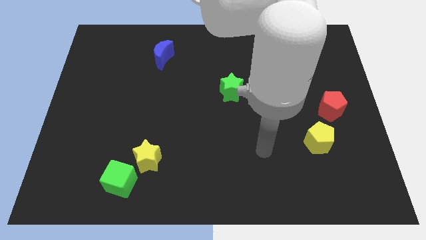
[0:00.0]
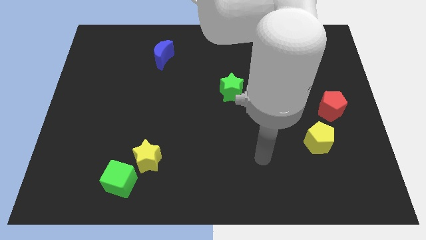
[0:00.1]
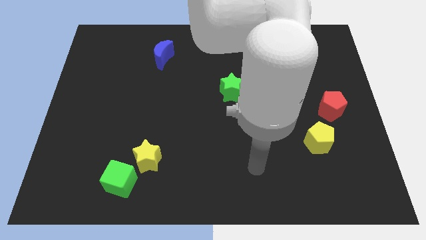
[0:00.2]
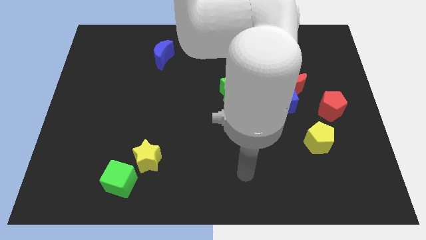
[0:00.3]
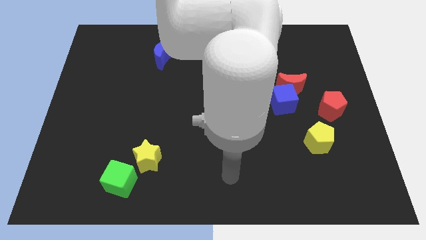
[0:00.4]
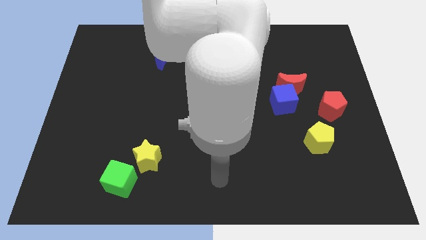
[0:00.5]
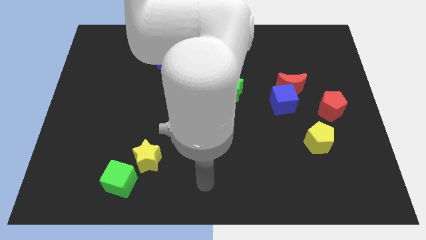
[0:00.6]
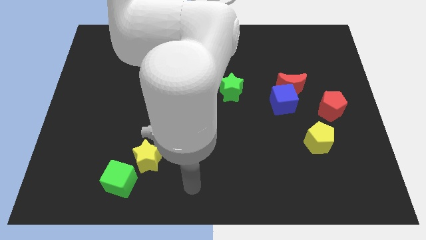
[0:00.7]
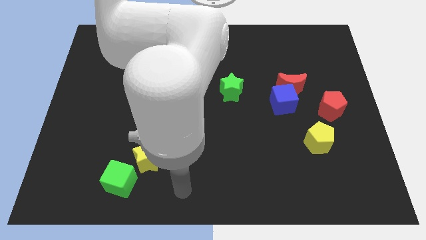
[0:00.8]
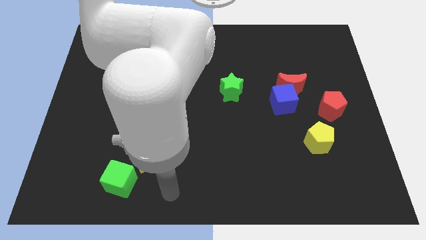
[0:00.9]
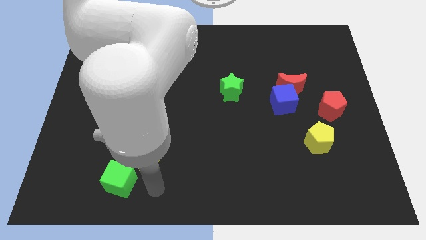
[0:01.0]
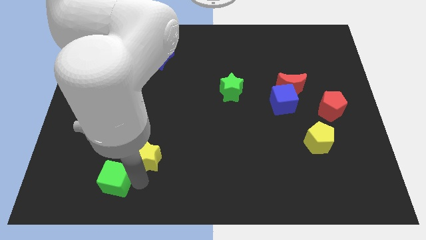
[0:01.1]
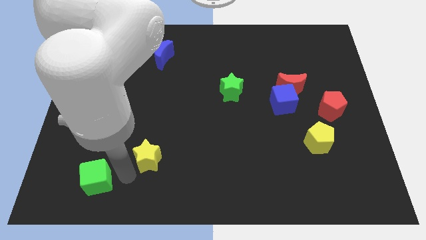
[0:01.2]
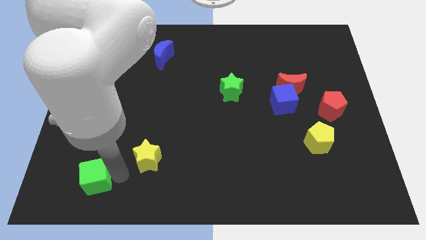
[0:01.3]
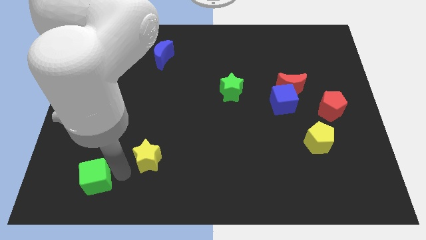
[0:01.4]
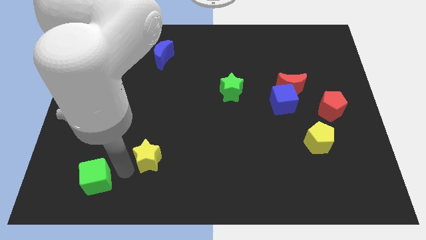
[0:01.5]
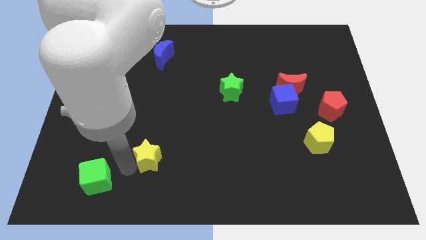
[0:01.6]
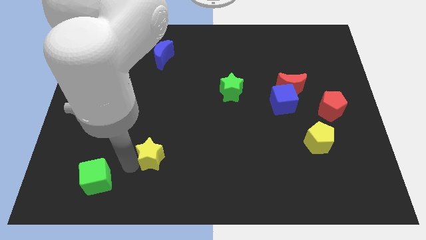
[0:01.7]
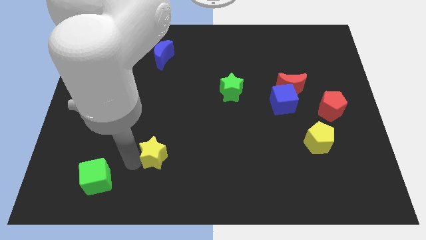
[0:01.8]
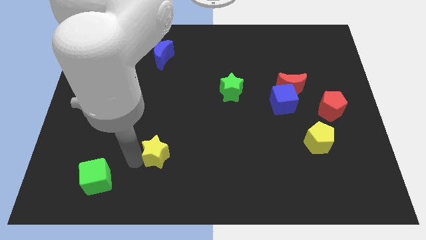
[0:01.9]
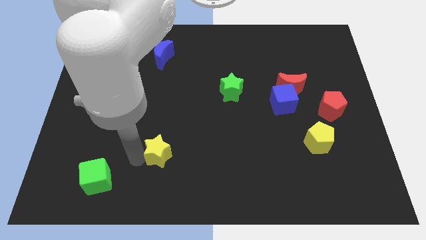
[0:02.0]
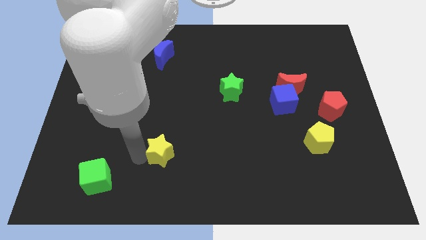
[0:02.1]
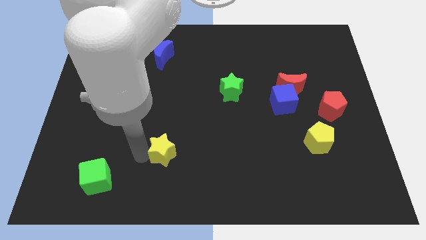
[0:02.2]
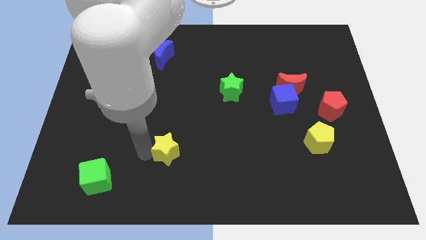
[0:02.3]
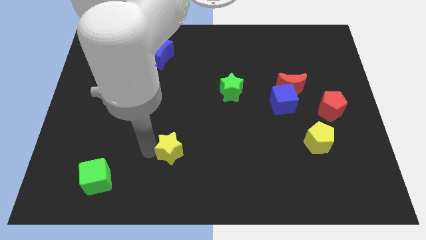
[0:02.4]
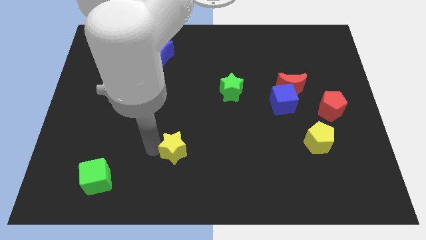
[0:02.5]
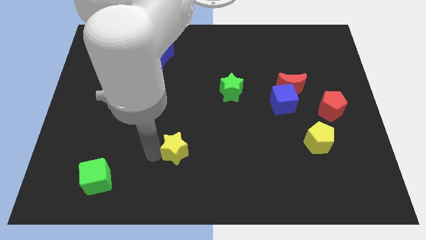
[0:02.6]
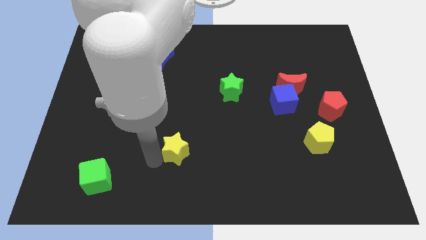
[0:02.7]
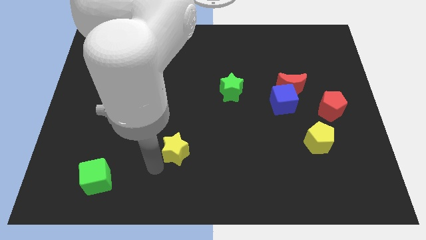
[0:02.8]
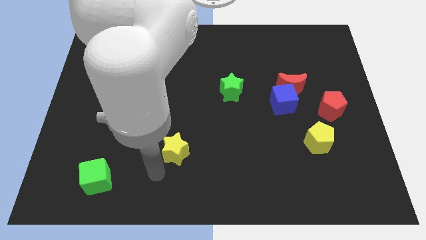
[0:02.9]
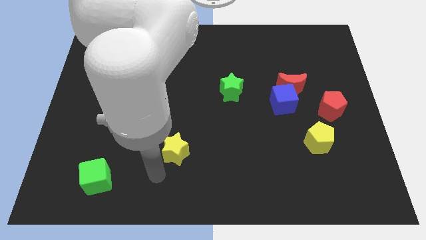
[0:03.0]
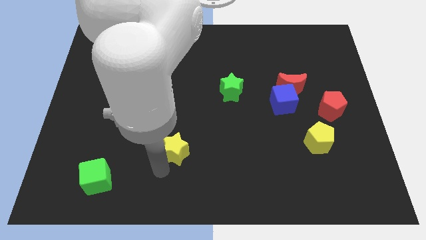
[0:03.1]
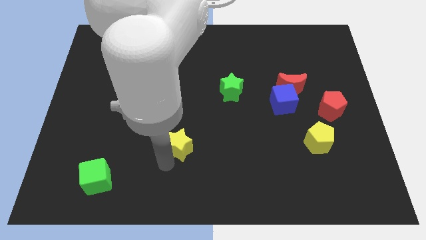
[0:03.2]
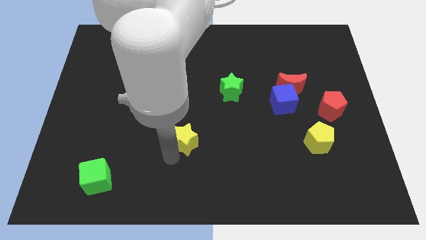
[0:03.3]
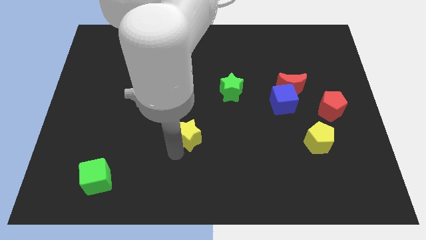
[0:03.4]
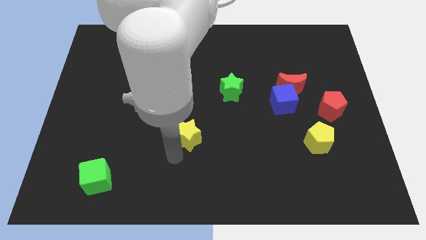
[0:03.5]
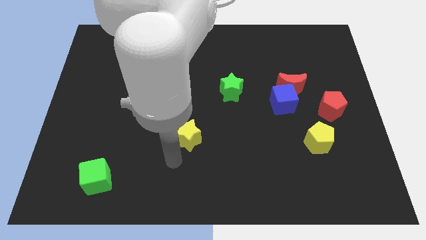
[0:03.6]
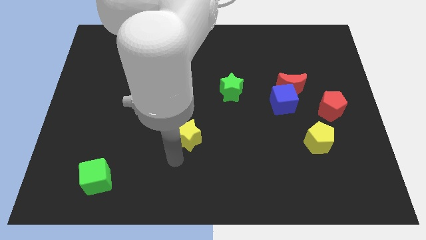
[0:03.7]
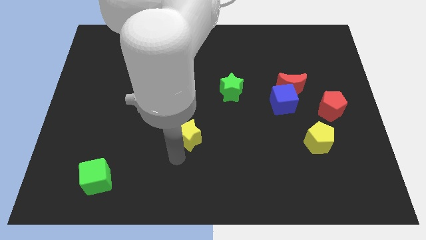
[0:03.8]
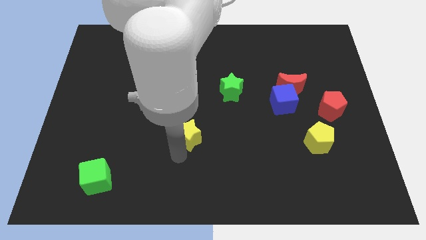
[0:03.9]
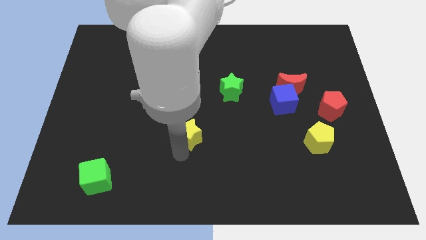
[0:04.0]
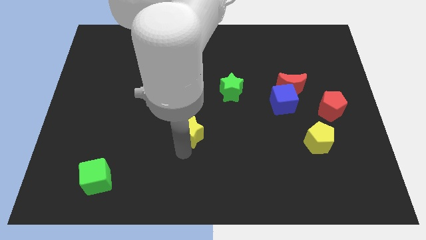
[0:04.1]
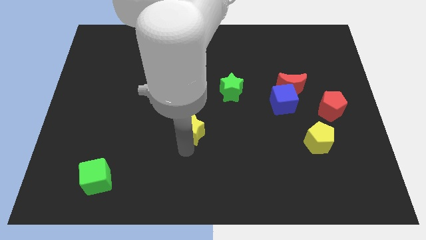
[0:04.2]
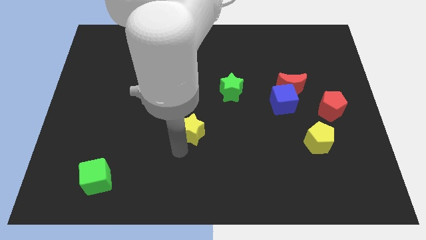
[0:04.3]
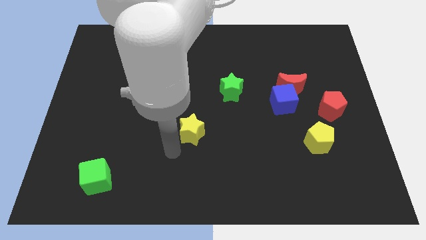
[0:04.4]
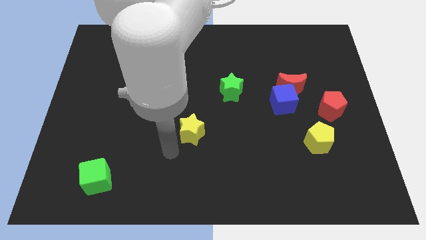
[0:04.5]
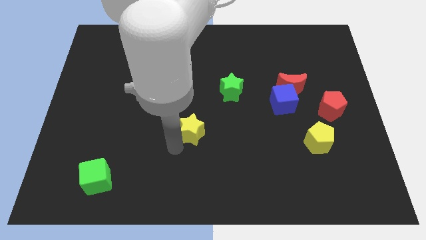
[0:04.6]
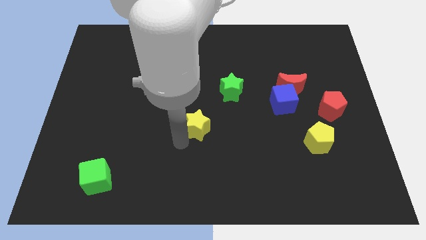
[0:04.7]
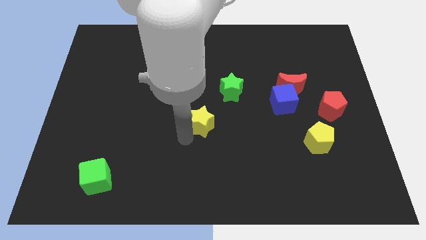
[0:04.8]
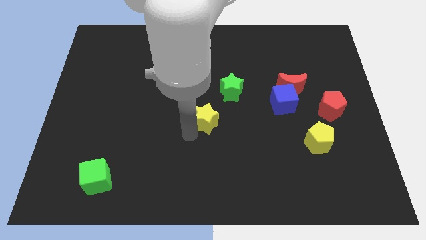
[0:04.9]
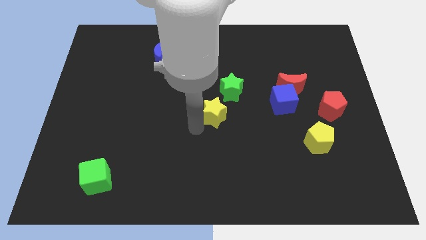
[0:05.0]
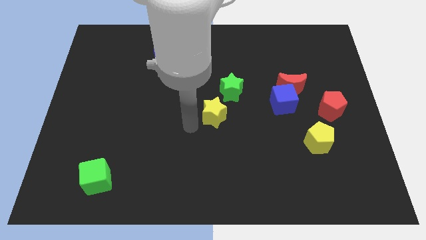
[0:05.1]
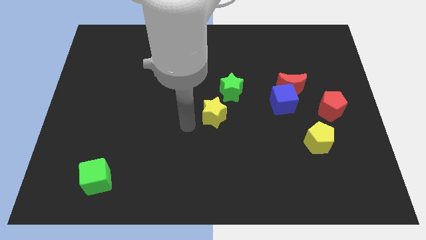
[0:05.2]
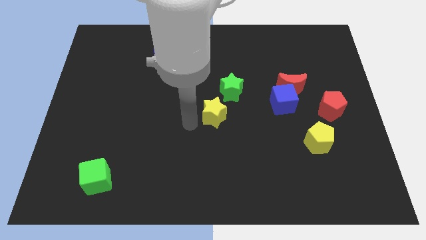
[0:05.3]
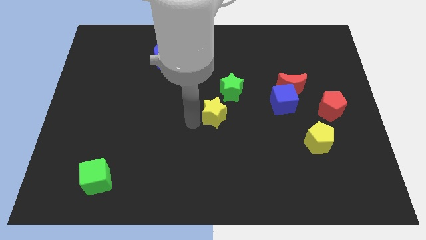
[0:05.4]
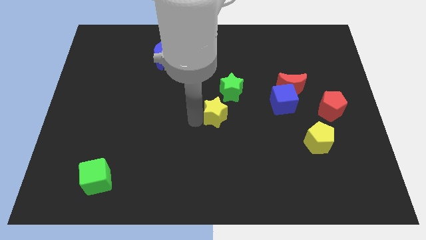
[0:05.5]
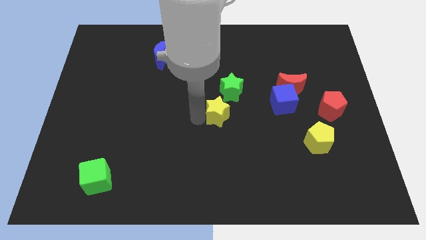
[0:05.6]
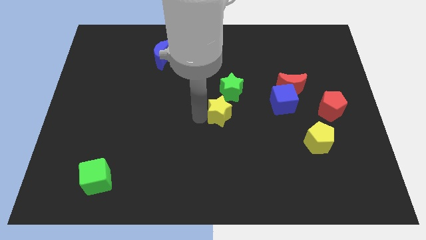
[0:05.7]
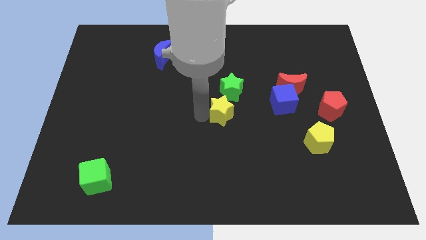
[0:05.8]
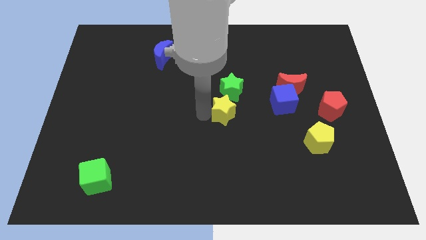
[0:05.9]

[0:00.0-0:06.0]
push the yellow star up and then to the right

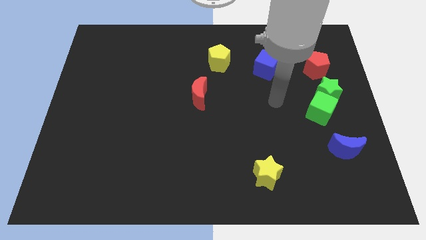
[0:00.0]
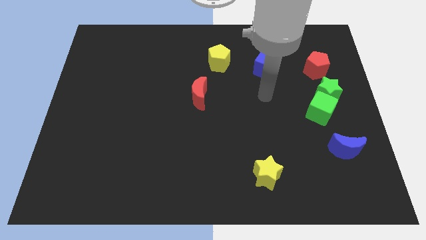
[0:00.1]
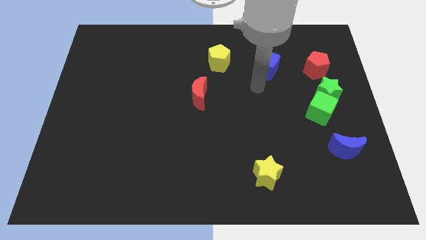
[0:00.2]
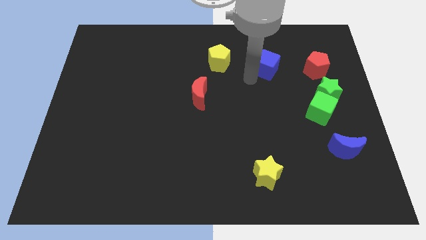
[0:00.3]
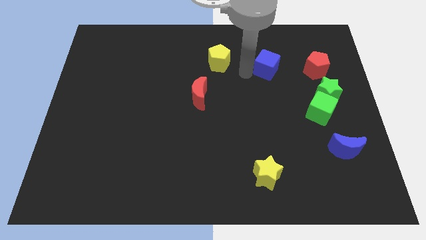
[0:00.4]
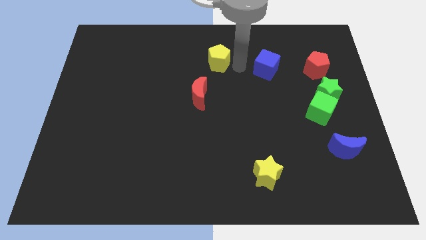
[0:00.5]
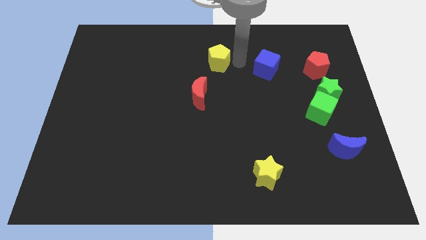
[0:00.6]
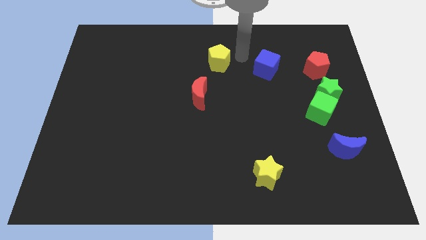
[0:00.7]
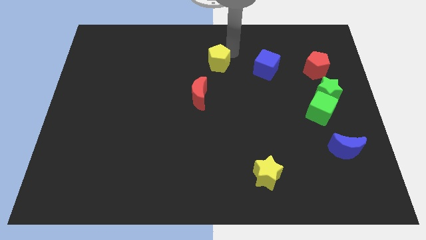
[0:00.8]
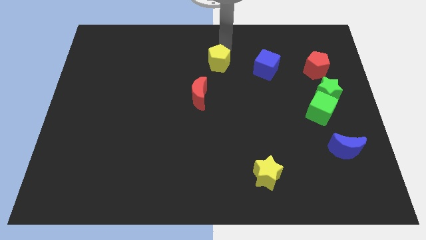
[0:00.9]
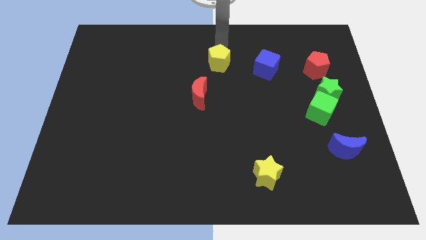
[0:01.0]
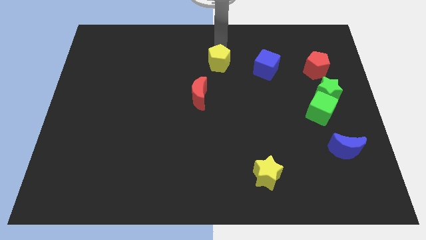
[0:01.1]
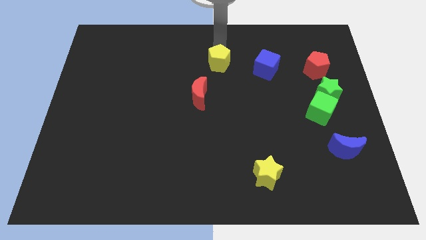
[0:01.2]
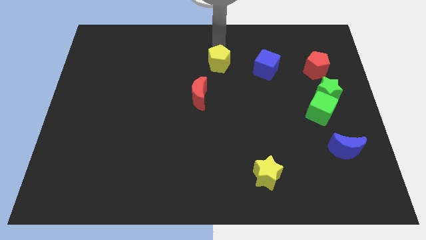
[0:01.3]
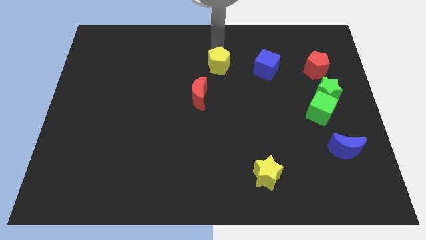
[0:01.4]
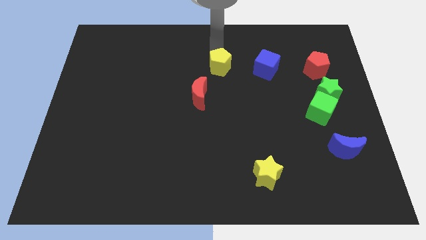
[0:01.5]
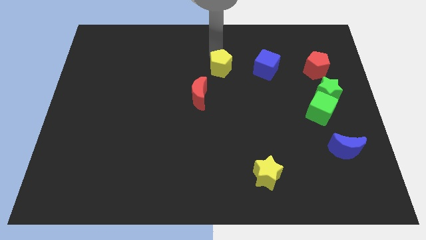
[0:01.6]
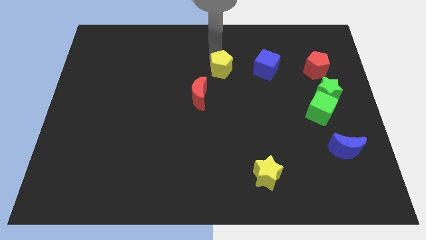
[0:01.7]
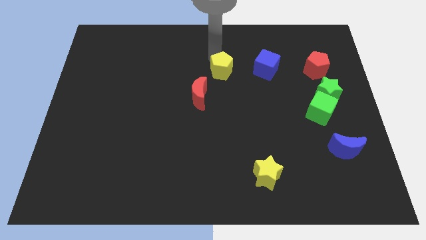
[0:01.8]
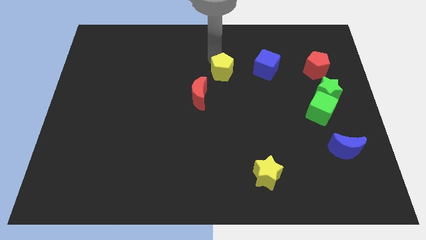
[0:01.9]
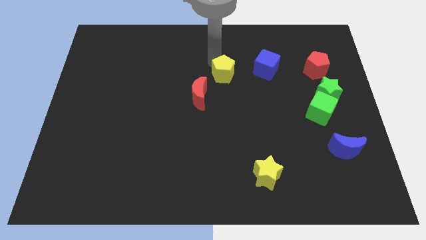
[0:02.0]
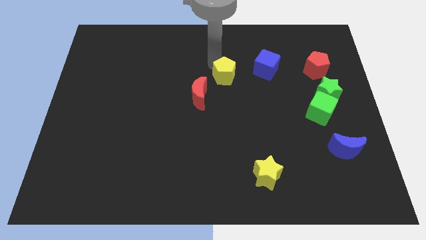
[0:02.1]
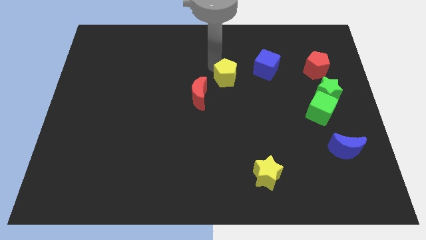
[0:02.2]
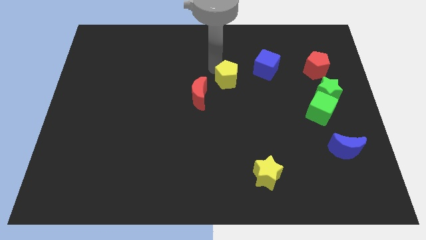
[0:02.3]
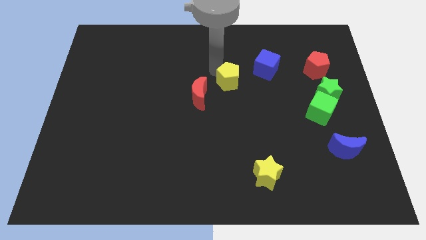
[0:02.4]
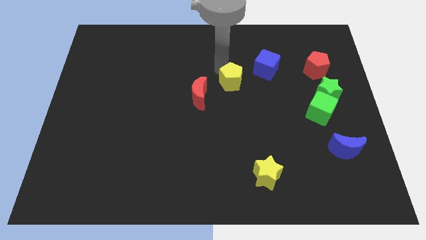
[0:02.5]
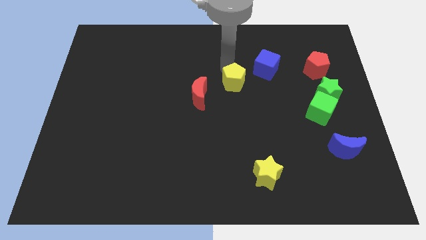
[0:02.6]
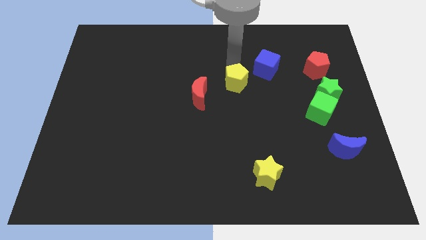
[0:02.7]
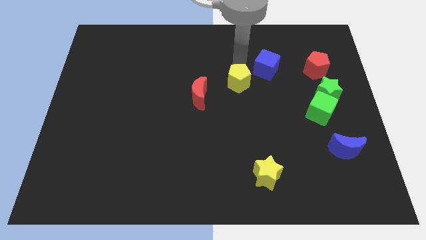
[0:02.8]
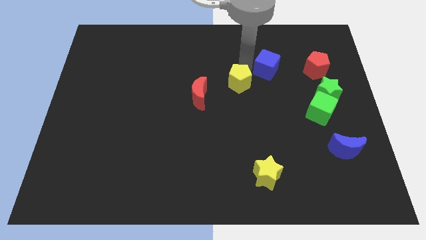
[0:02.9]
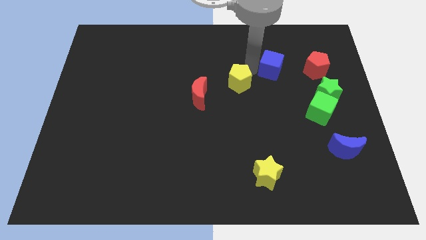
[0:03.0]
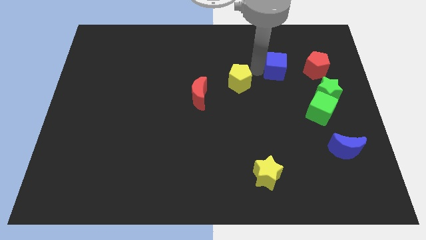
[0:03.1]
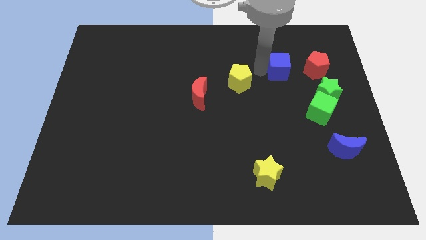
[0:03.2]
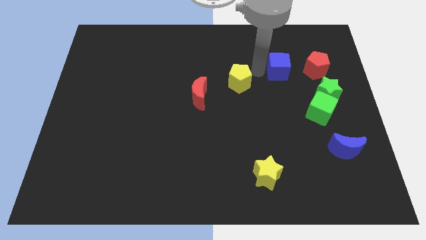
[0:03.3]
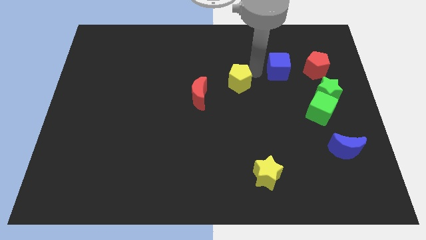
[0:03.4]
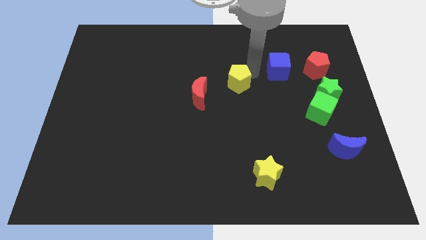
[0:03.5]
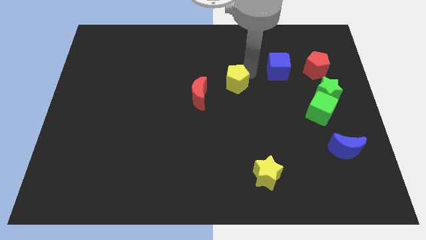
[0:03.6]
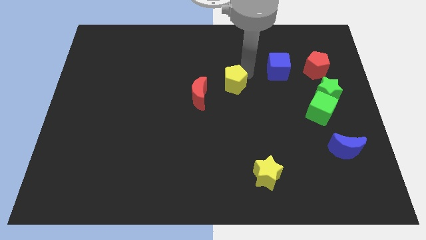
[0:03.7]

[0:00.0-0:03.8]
move the yellow pentagon a little downwards
